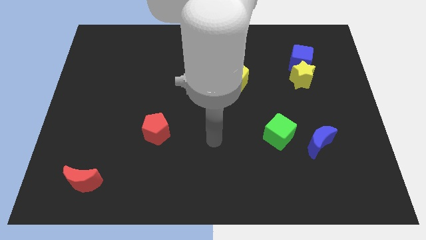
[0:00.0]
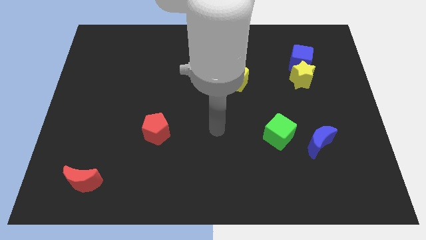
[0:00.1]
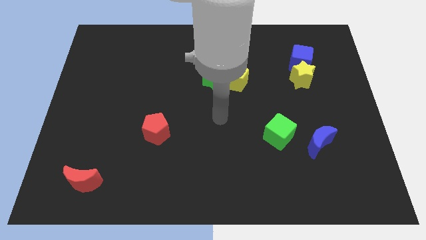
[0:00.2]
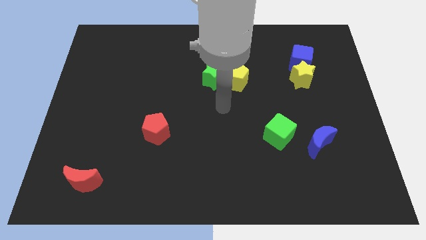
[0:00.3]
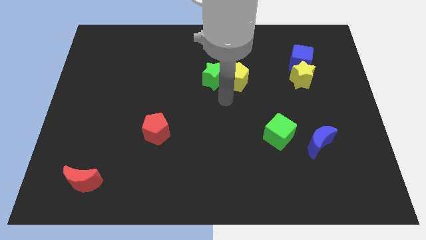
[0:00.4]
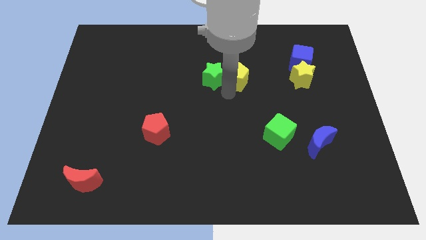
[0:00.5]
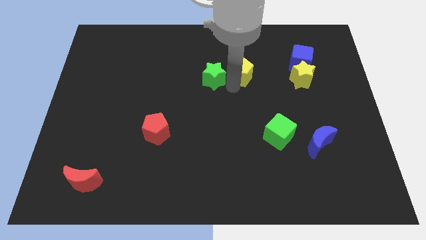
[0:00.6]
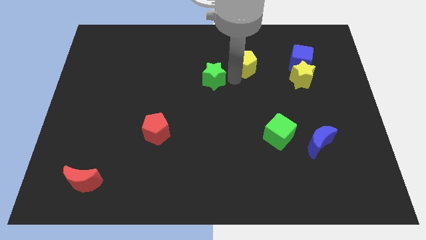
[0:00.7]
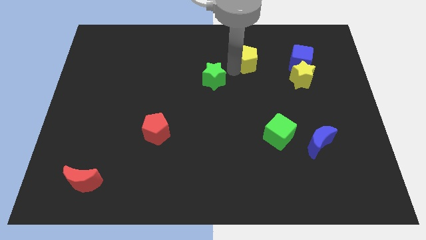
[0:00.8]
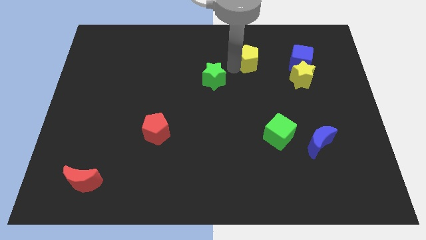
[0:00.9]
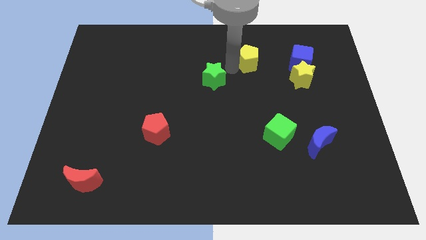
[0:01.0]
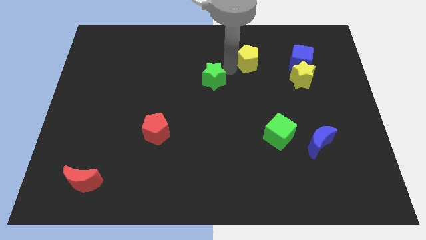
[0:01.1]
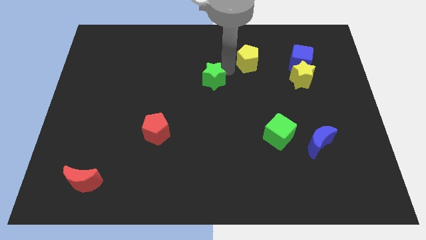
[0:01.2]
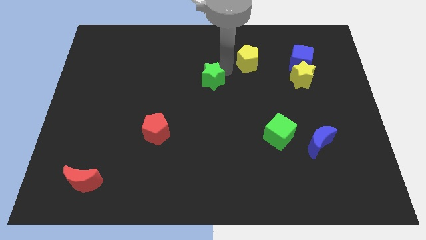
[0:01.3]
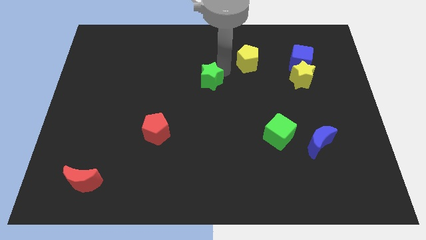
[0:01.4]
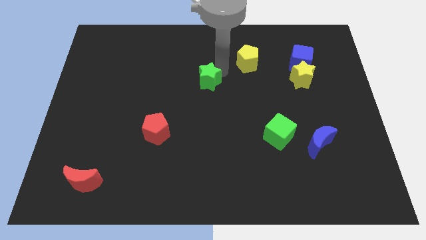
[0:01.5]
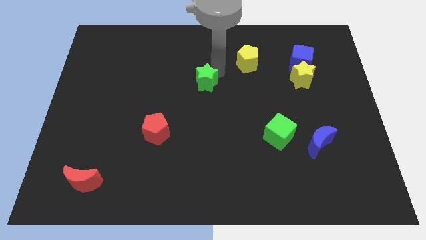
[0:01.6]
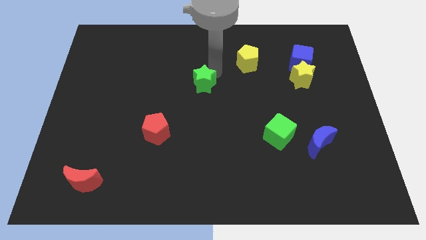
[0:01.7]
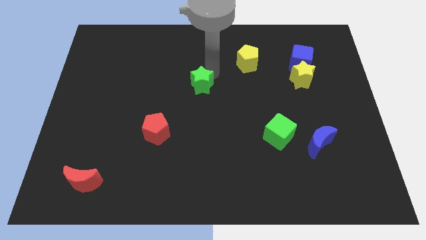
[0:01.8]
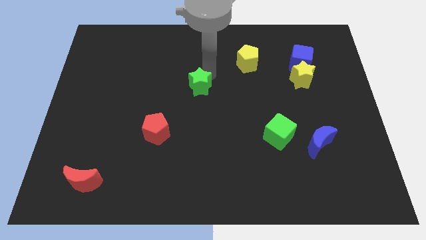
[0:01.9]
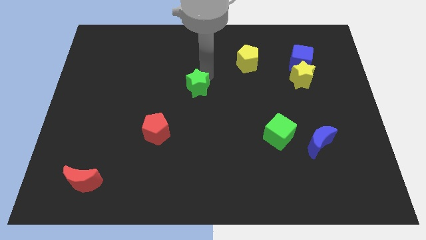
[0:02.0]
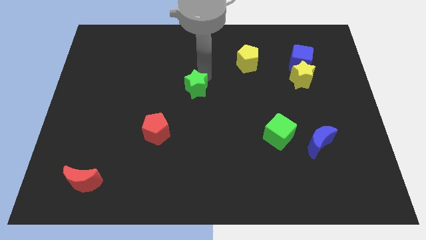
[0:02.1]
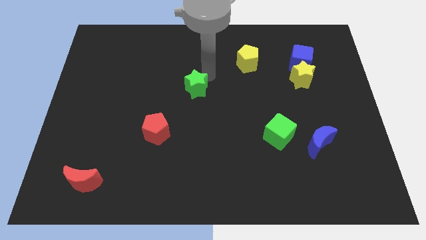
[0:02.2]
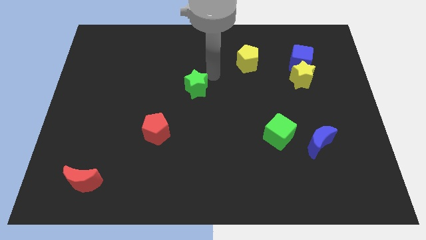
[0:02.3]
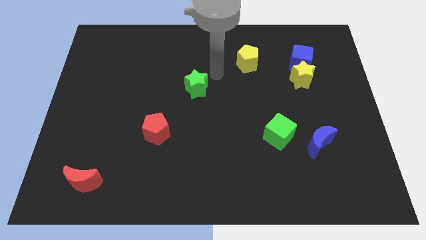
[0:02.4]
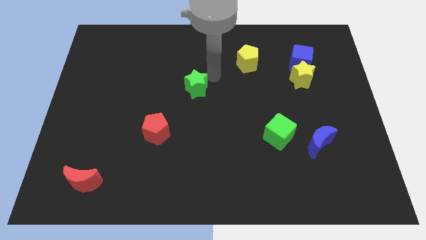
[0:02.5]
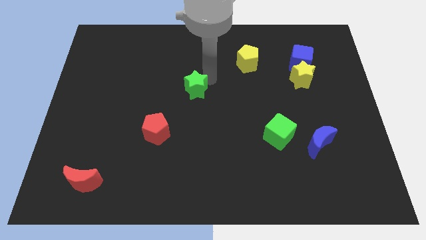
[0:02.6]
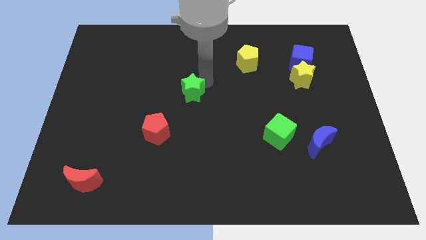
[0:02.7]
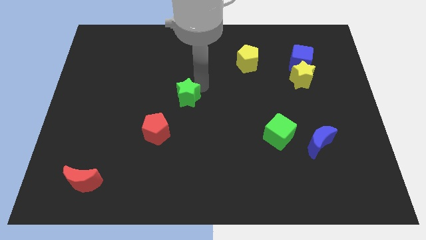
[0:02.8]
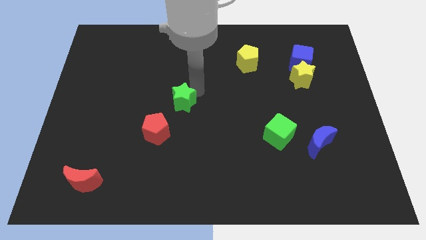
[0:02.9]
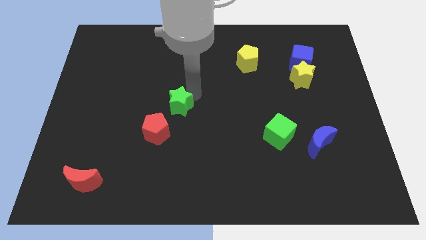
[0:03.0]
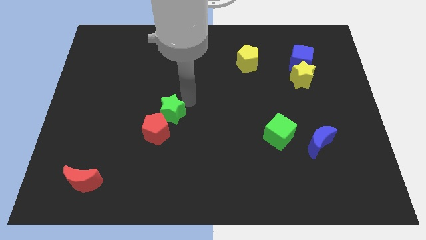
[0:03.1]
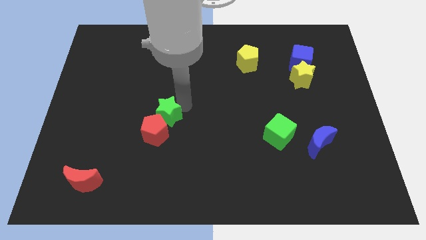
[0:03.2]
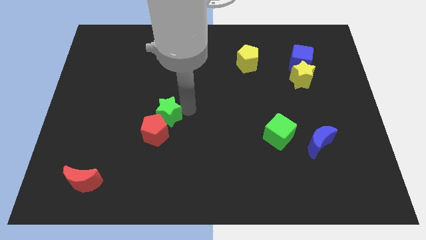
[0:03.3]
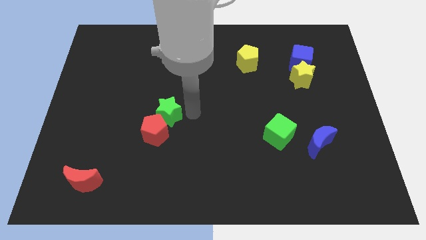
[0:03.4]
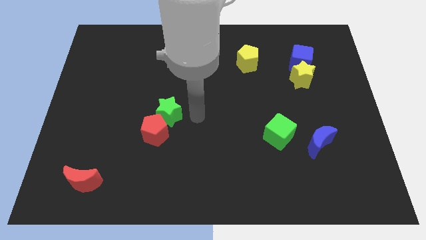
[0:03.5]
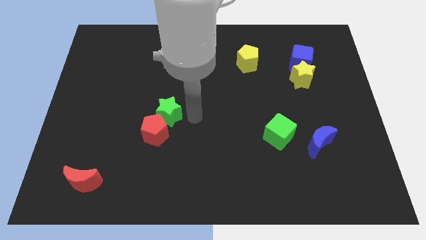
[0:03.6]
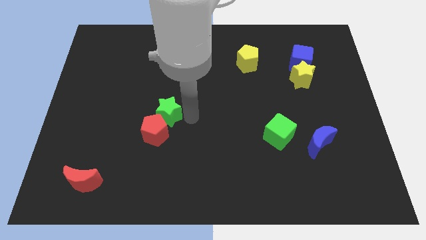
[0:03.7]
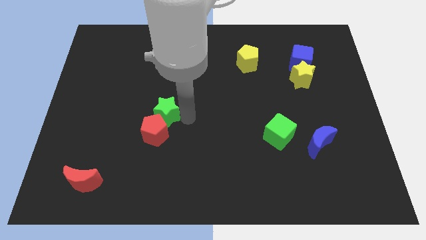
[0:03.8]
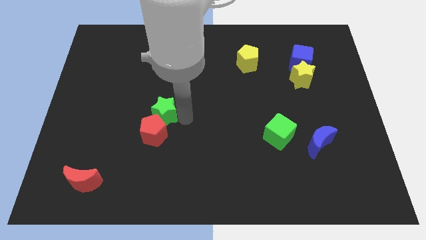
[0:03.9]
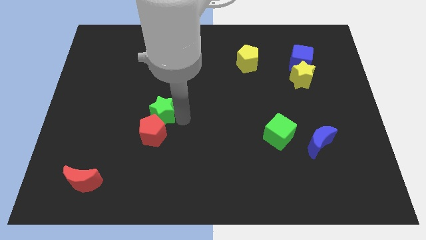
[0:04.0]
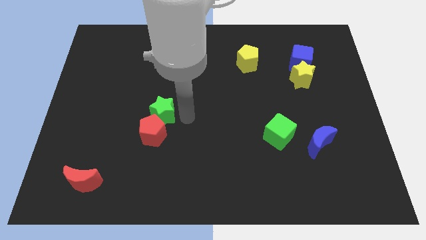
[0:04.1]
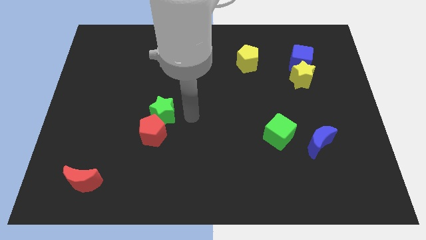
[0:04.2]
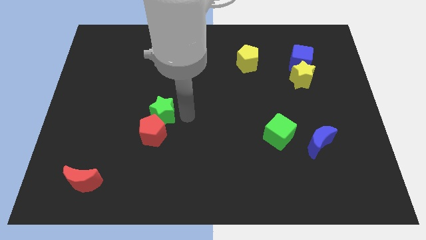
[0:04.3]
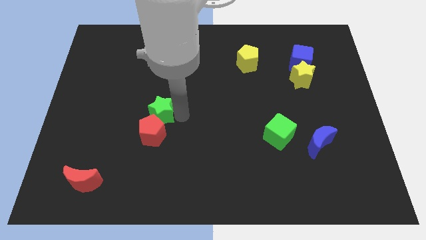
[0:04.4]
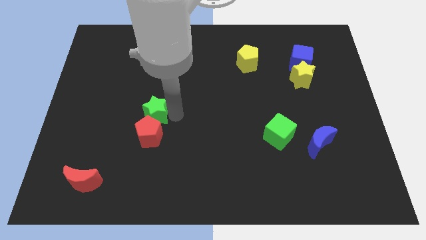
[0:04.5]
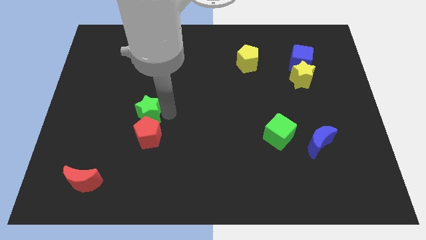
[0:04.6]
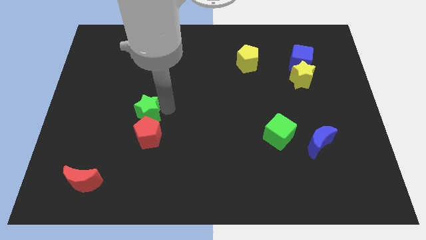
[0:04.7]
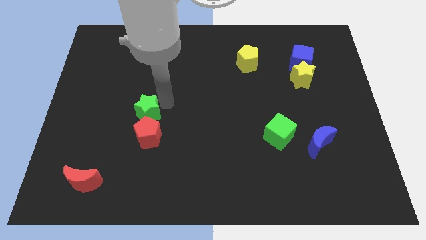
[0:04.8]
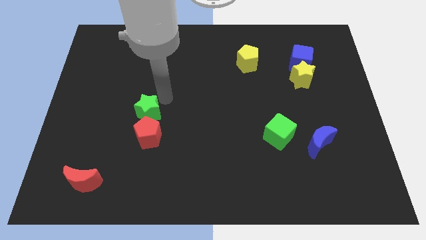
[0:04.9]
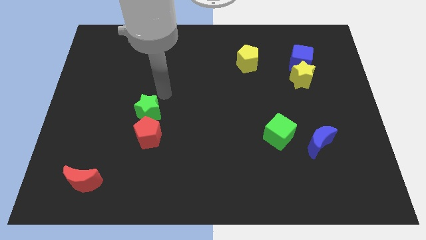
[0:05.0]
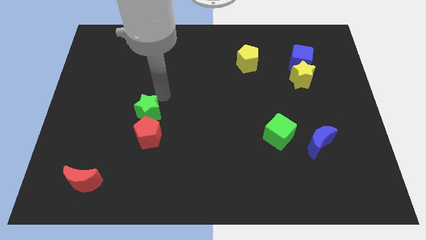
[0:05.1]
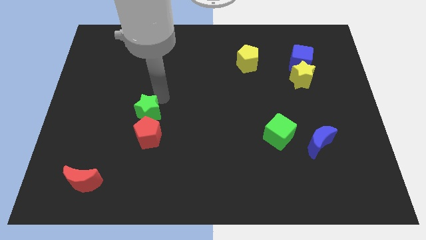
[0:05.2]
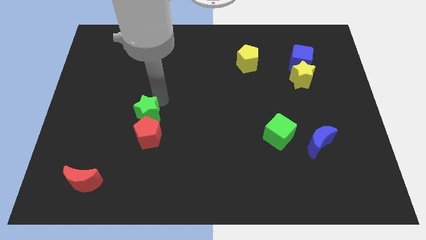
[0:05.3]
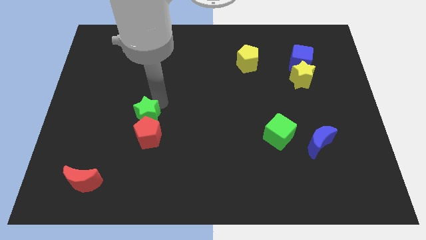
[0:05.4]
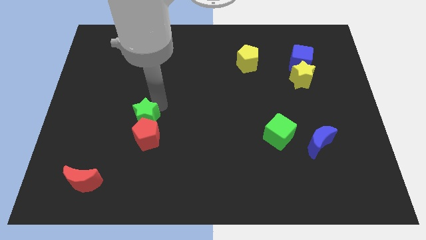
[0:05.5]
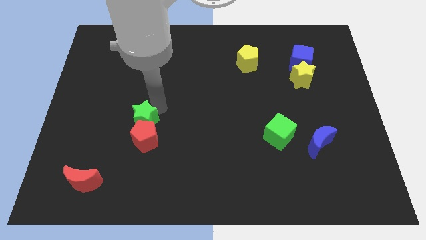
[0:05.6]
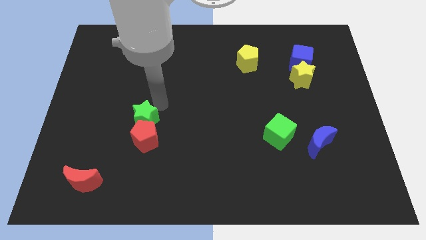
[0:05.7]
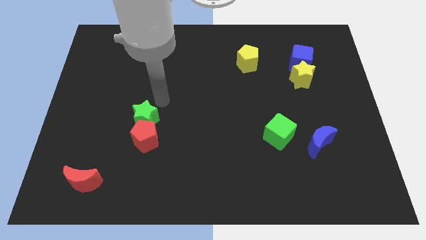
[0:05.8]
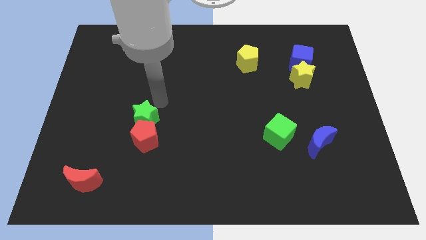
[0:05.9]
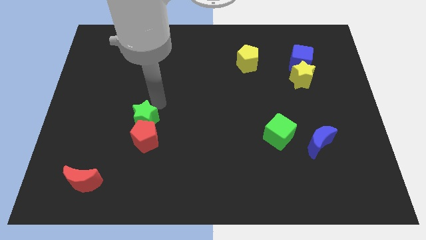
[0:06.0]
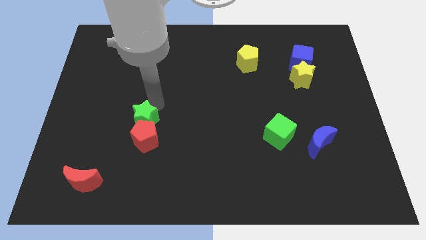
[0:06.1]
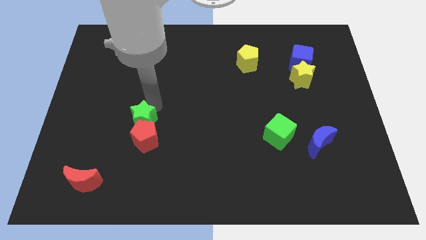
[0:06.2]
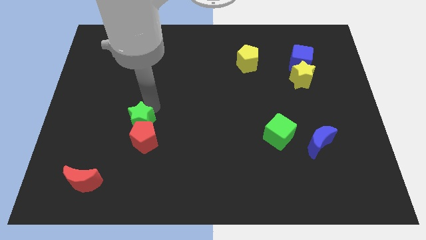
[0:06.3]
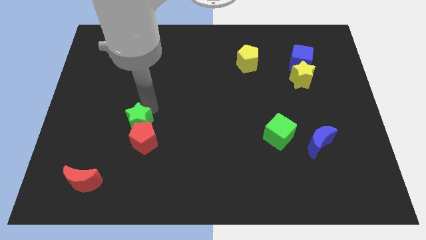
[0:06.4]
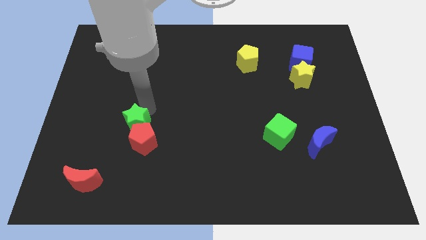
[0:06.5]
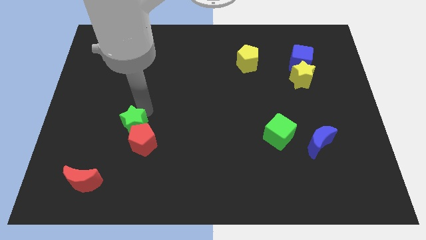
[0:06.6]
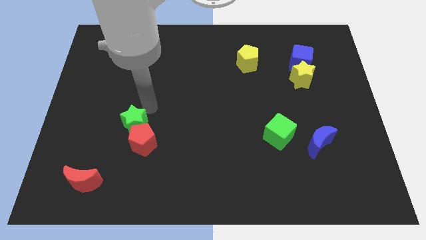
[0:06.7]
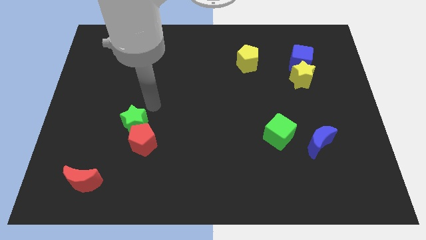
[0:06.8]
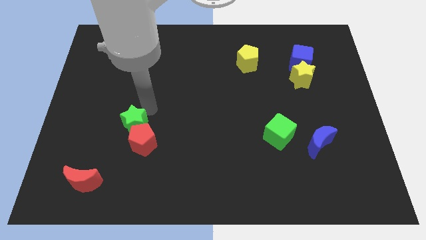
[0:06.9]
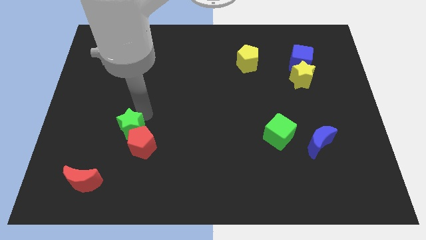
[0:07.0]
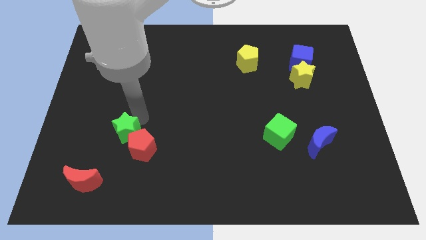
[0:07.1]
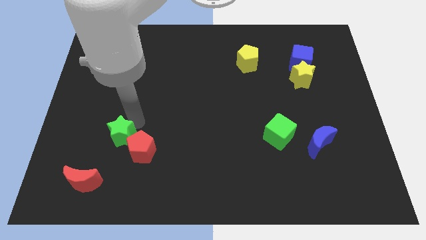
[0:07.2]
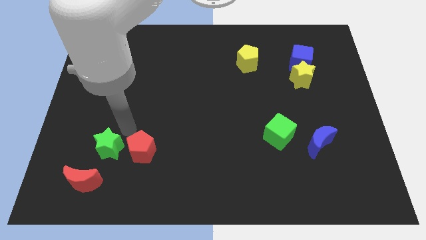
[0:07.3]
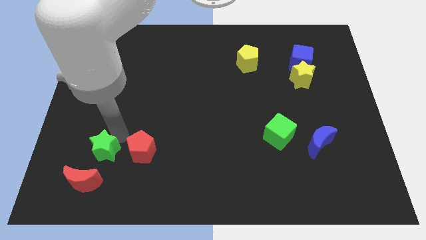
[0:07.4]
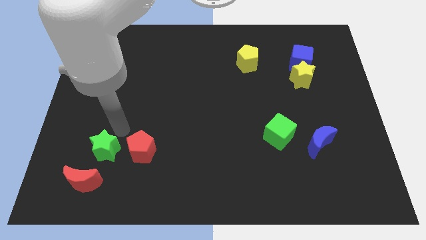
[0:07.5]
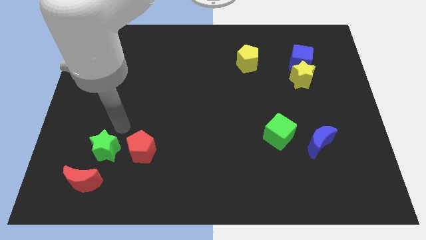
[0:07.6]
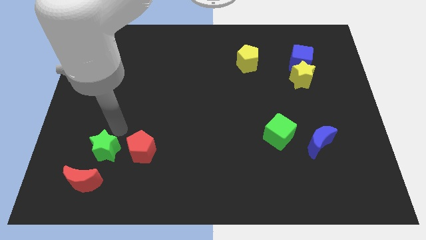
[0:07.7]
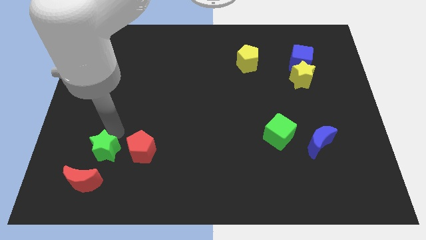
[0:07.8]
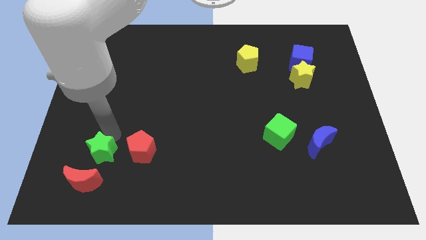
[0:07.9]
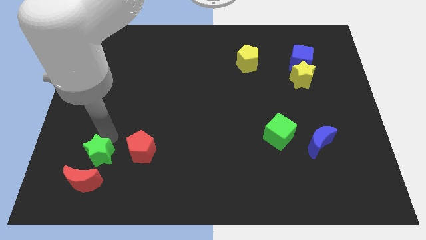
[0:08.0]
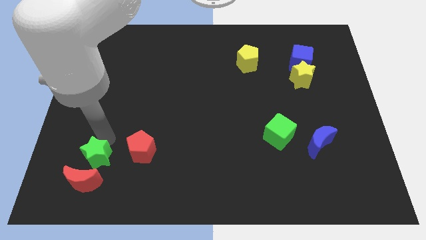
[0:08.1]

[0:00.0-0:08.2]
move the green star to the red moon
